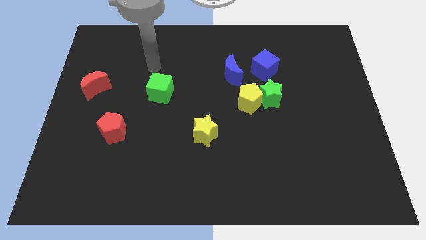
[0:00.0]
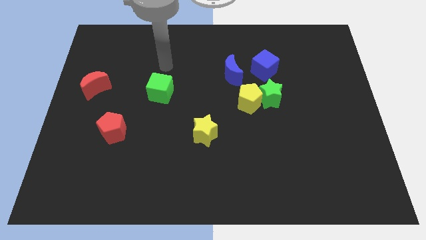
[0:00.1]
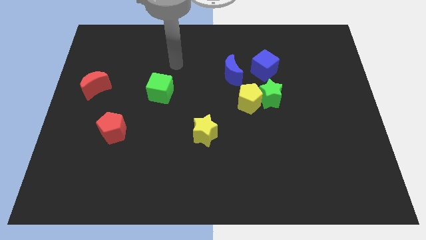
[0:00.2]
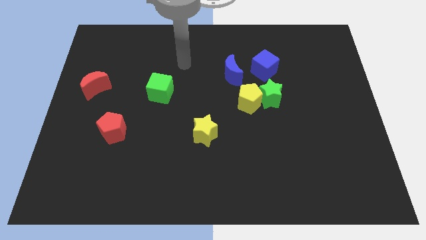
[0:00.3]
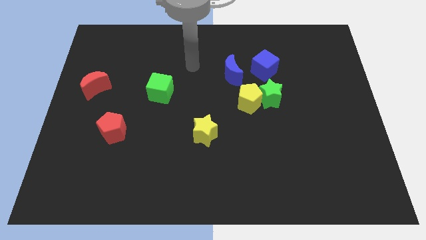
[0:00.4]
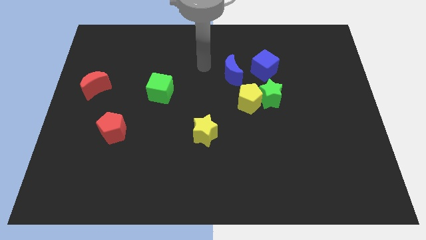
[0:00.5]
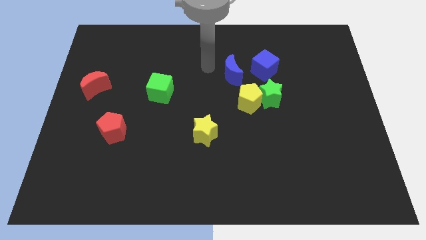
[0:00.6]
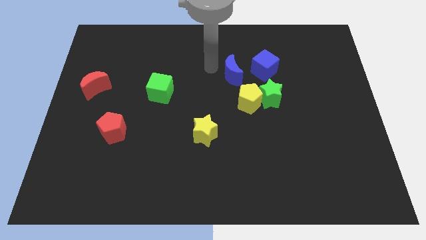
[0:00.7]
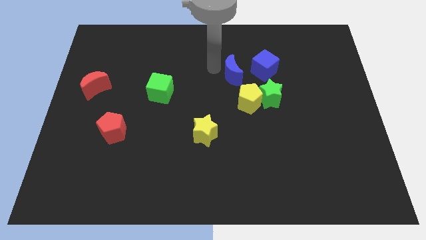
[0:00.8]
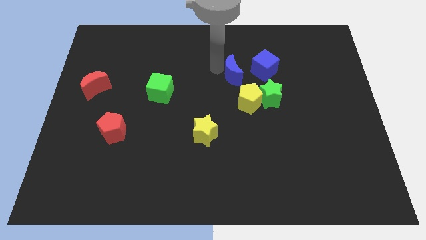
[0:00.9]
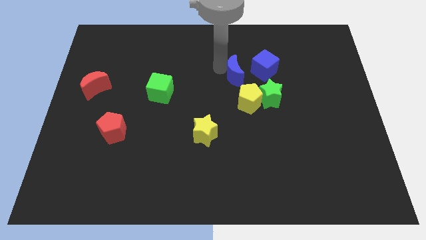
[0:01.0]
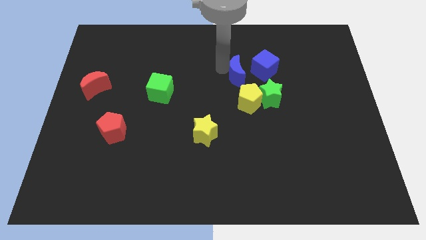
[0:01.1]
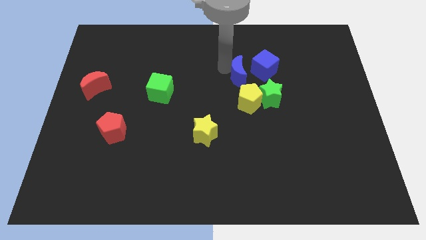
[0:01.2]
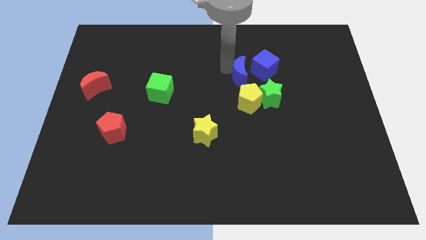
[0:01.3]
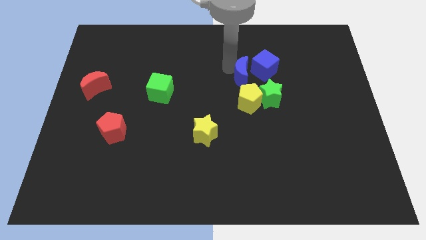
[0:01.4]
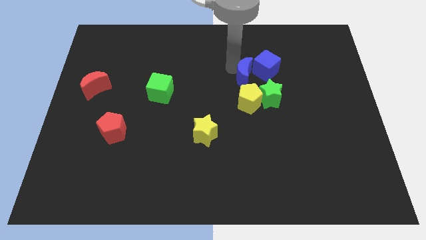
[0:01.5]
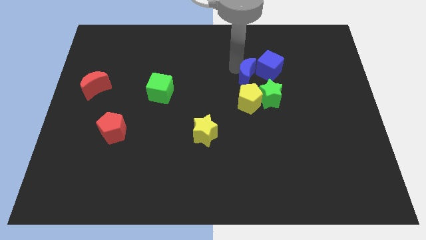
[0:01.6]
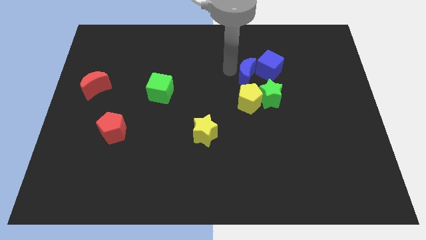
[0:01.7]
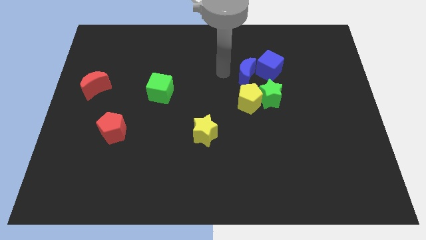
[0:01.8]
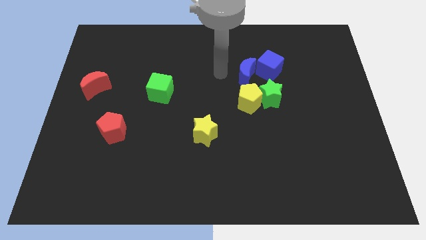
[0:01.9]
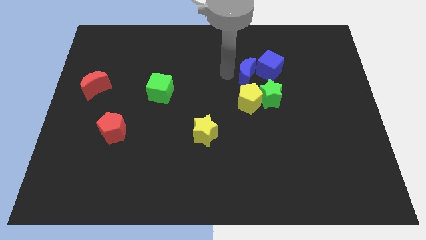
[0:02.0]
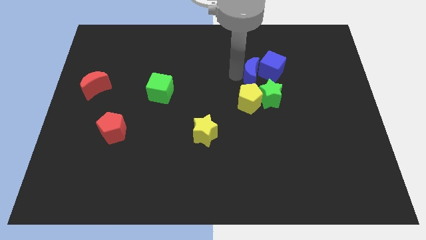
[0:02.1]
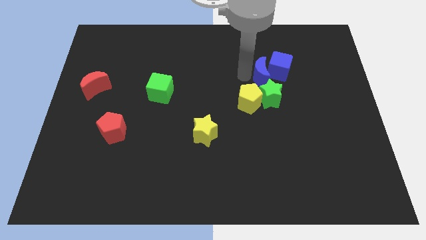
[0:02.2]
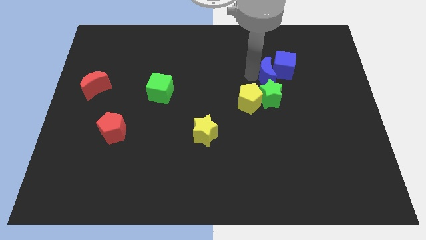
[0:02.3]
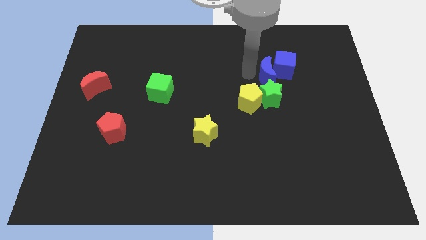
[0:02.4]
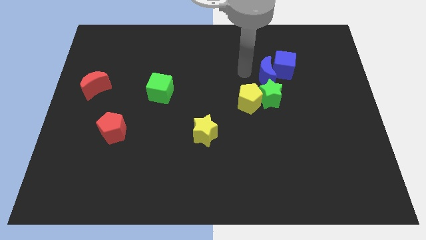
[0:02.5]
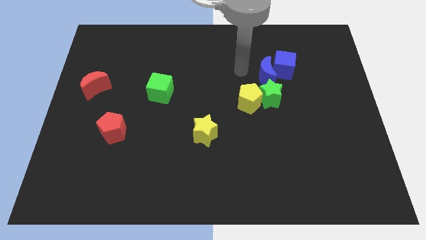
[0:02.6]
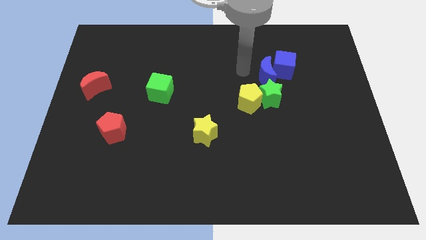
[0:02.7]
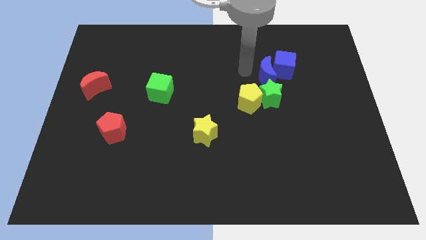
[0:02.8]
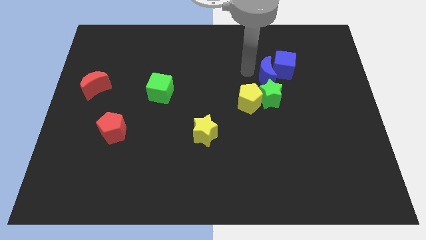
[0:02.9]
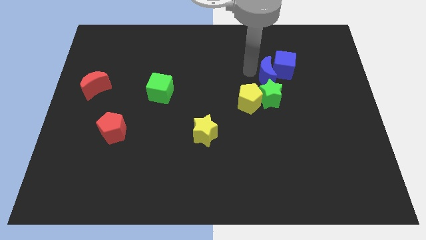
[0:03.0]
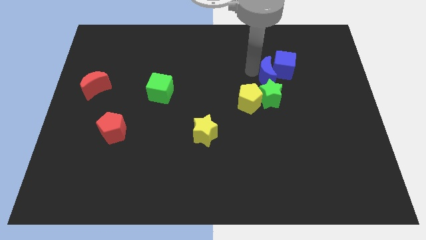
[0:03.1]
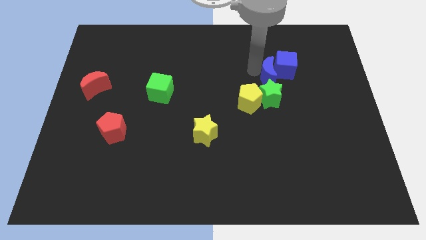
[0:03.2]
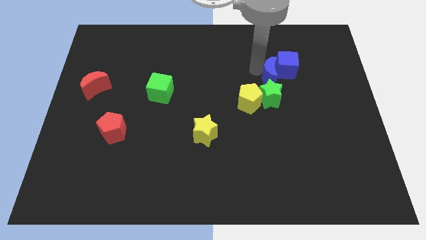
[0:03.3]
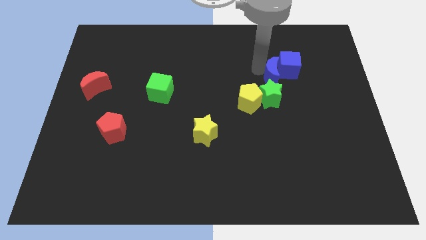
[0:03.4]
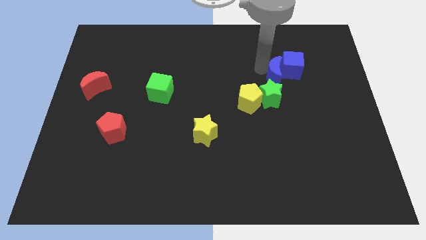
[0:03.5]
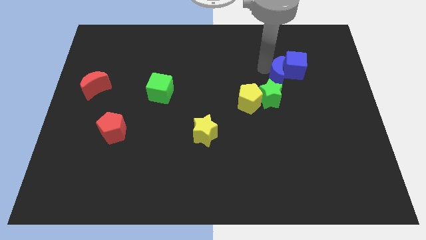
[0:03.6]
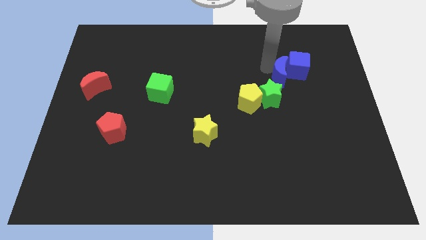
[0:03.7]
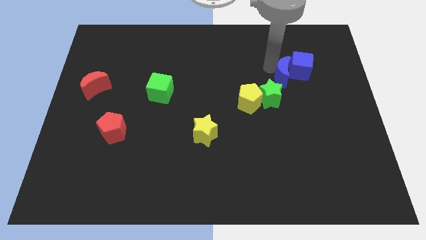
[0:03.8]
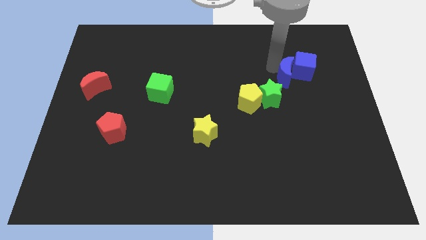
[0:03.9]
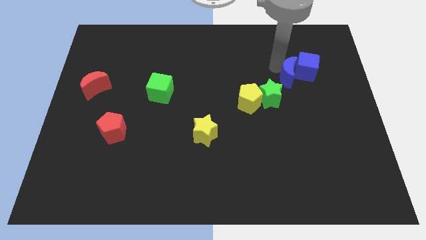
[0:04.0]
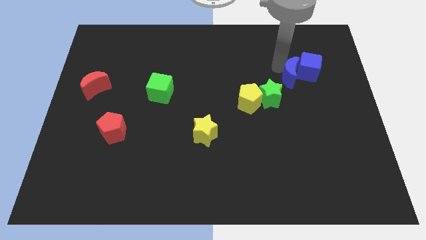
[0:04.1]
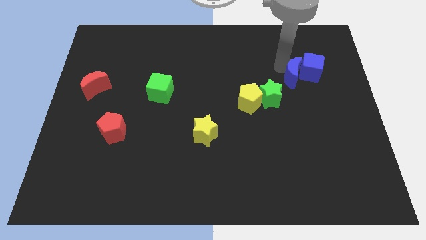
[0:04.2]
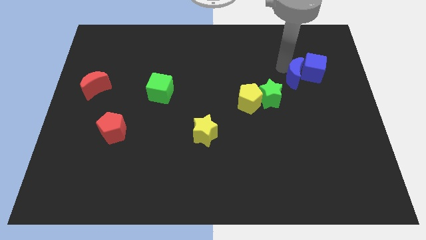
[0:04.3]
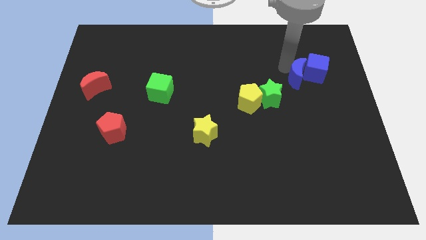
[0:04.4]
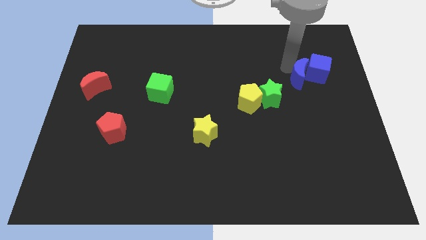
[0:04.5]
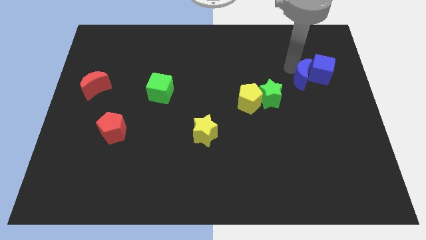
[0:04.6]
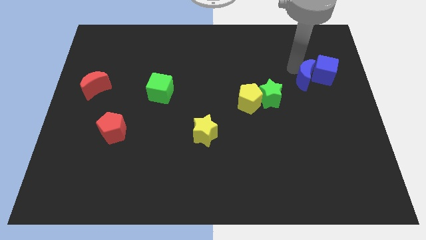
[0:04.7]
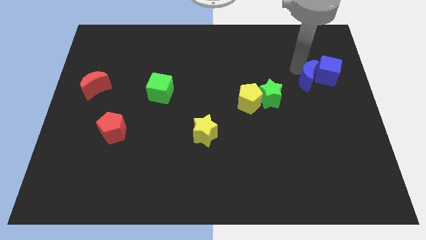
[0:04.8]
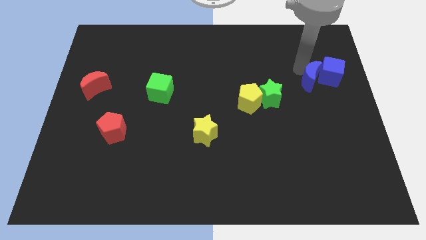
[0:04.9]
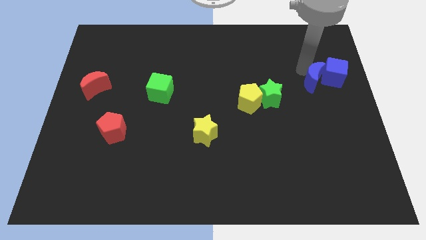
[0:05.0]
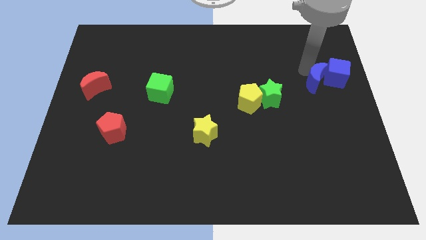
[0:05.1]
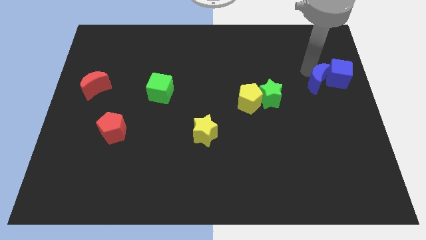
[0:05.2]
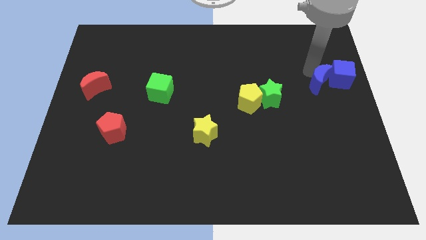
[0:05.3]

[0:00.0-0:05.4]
slide the blue moon to the right side of the board

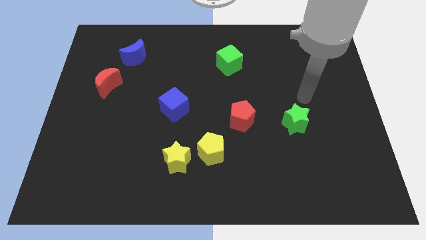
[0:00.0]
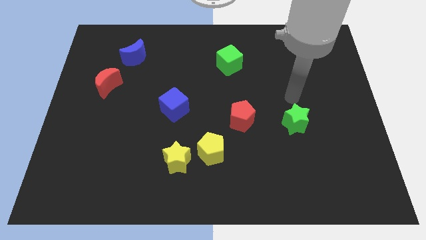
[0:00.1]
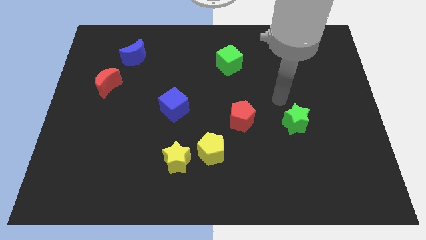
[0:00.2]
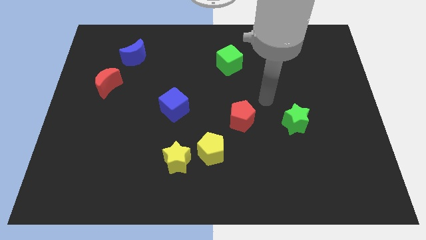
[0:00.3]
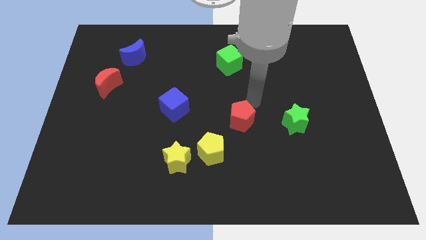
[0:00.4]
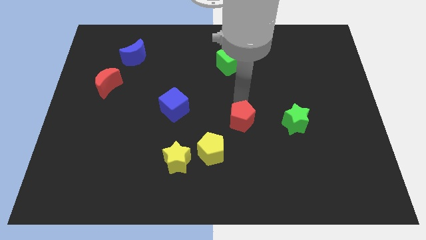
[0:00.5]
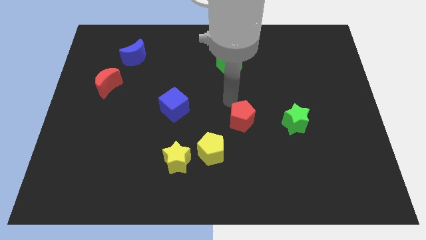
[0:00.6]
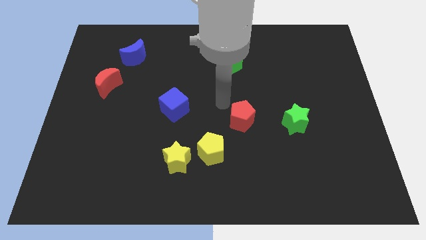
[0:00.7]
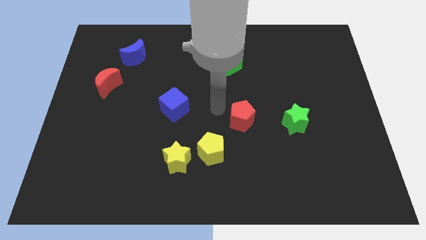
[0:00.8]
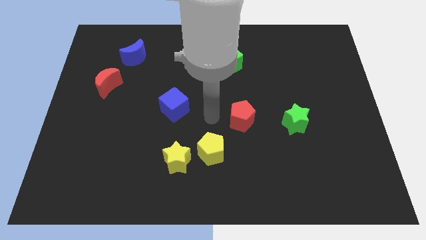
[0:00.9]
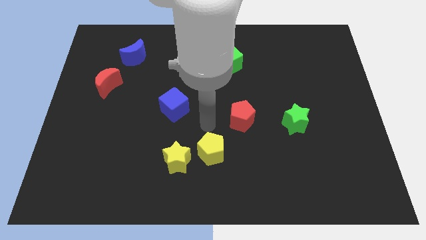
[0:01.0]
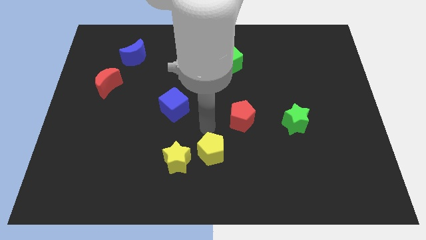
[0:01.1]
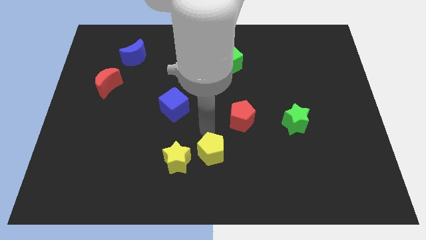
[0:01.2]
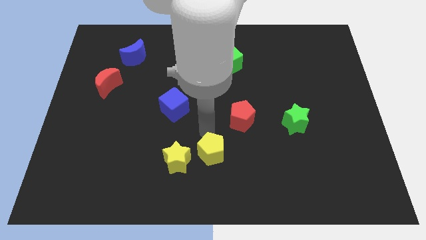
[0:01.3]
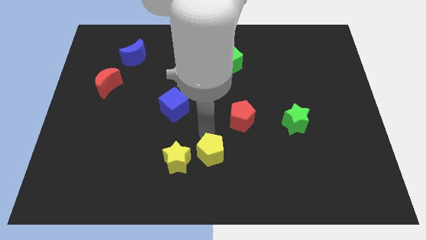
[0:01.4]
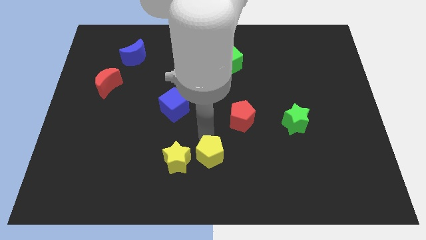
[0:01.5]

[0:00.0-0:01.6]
slide the yellow pentagon to the bottom
